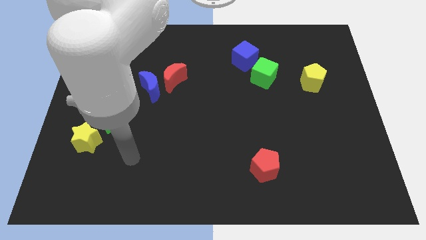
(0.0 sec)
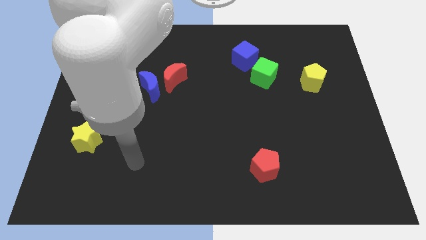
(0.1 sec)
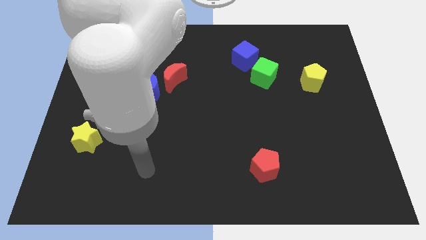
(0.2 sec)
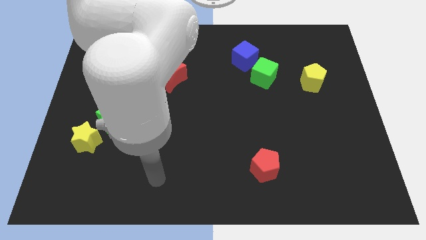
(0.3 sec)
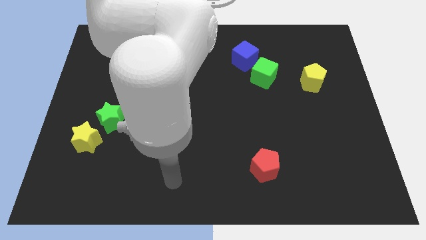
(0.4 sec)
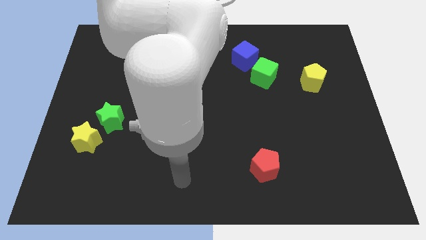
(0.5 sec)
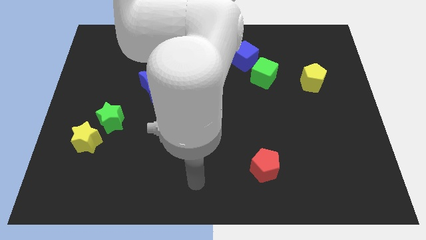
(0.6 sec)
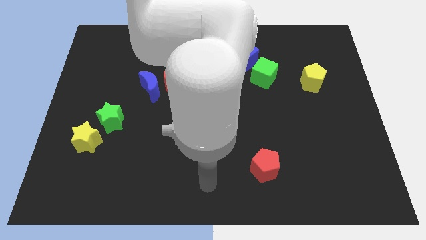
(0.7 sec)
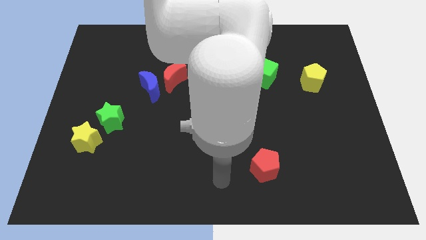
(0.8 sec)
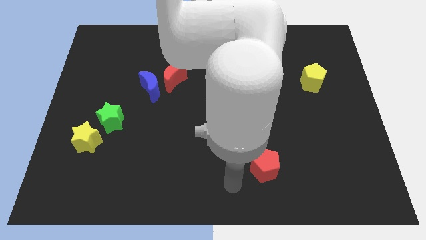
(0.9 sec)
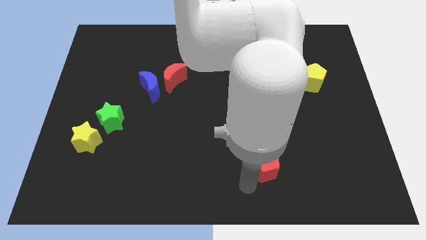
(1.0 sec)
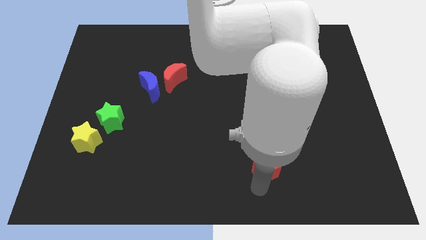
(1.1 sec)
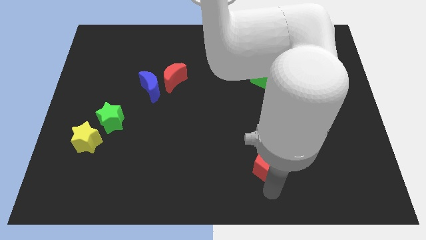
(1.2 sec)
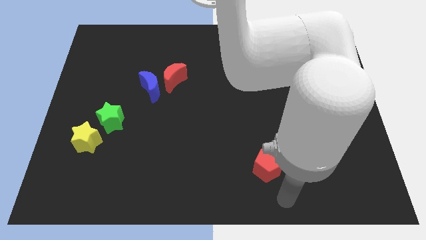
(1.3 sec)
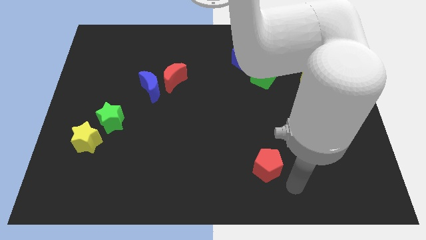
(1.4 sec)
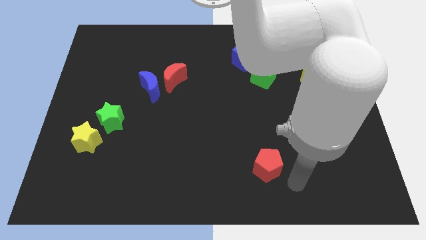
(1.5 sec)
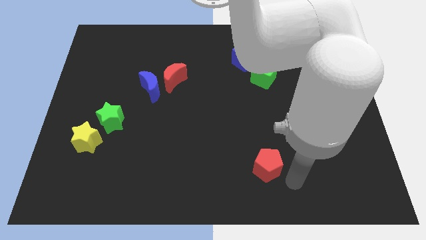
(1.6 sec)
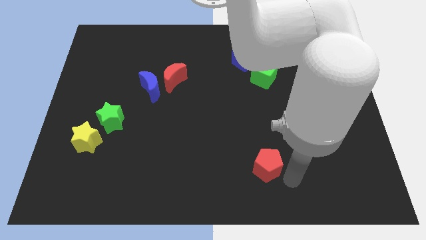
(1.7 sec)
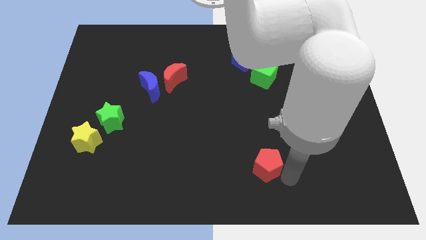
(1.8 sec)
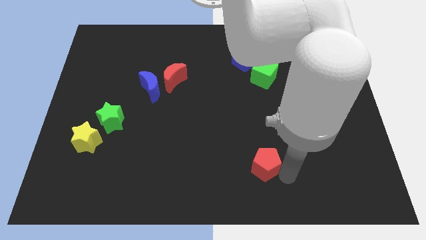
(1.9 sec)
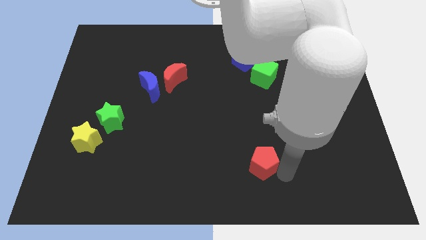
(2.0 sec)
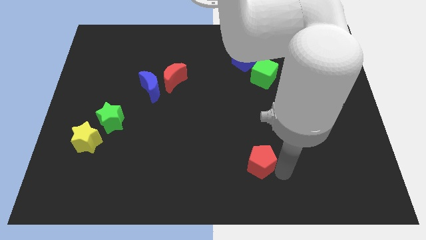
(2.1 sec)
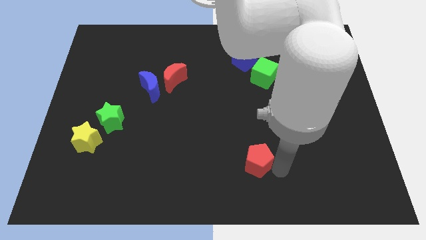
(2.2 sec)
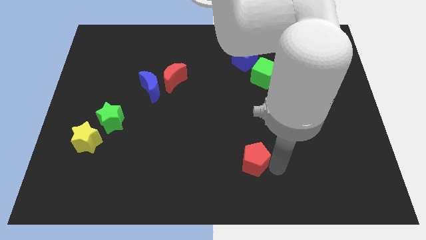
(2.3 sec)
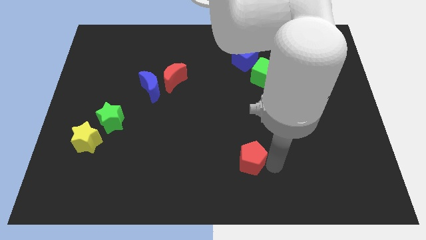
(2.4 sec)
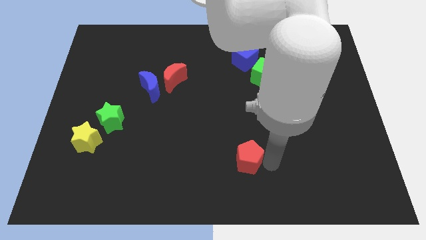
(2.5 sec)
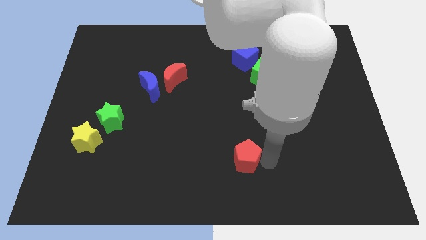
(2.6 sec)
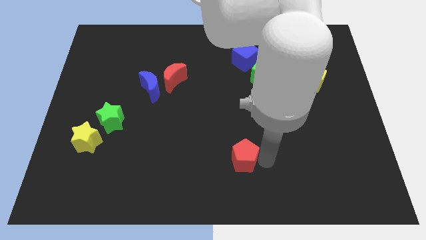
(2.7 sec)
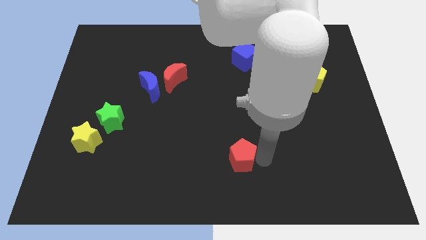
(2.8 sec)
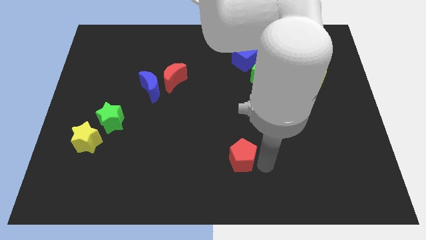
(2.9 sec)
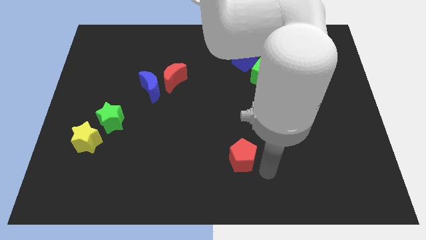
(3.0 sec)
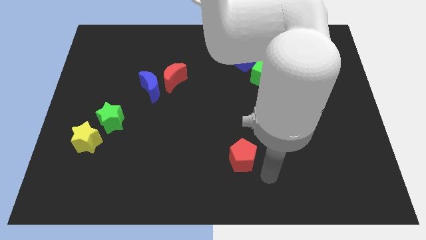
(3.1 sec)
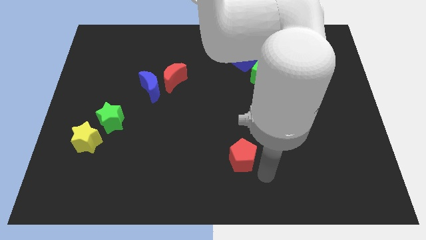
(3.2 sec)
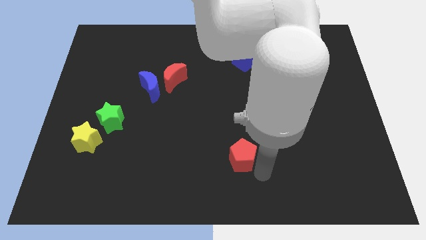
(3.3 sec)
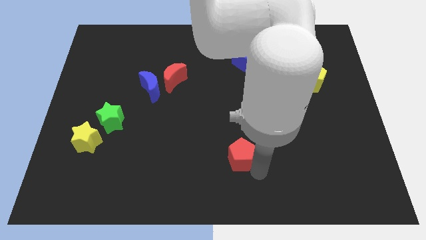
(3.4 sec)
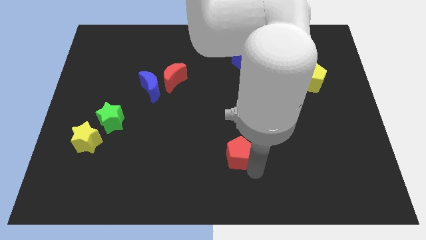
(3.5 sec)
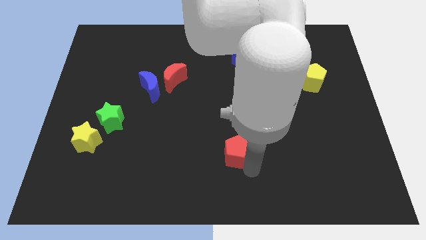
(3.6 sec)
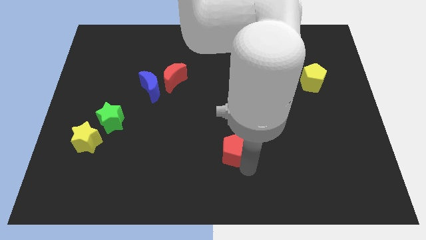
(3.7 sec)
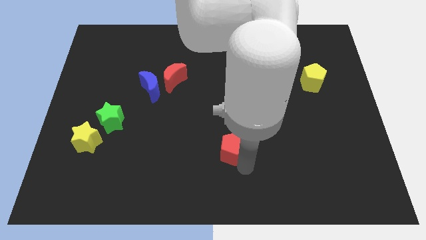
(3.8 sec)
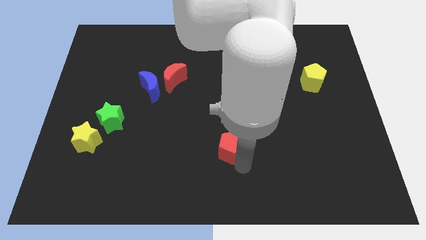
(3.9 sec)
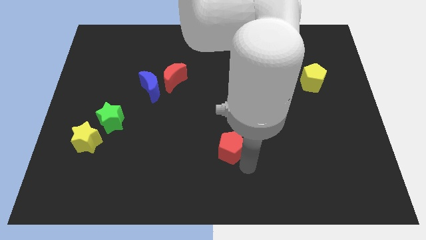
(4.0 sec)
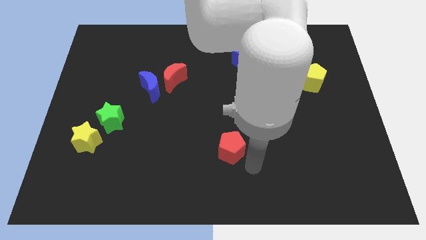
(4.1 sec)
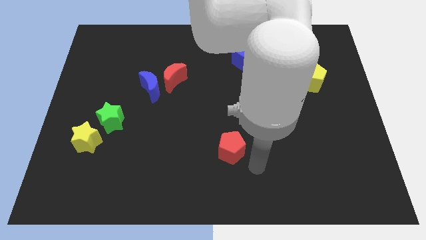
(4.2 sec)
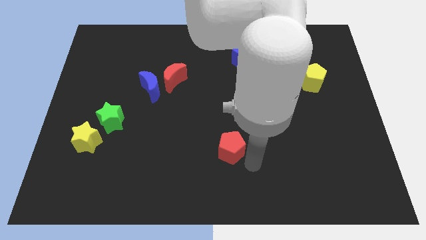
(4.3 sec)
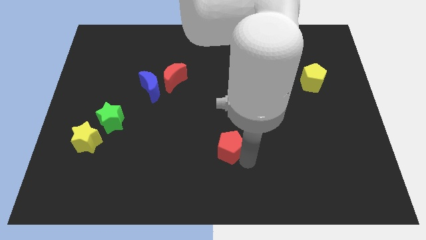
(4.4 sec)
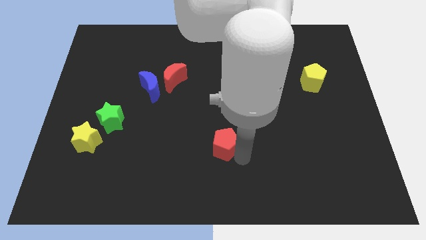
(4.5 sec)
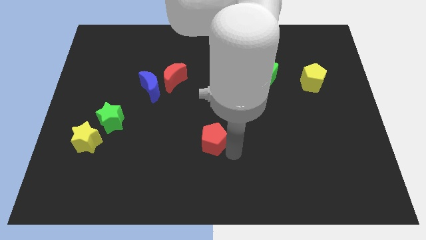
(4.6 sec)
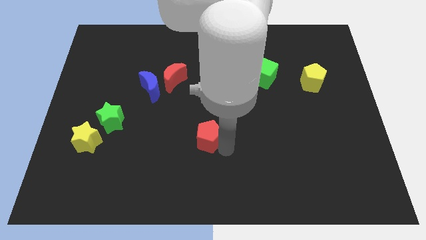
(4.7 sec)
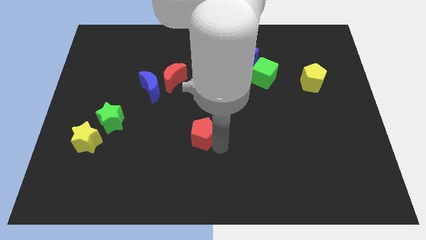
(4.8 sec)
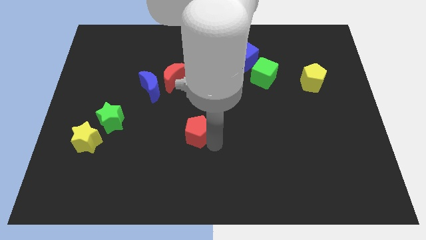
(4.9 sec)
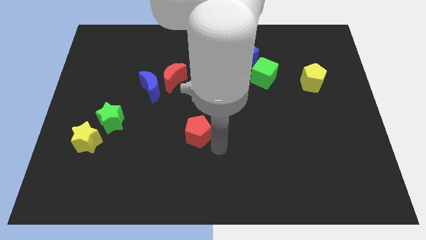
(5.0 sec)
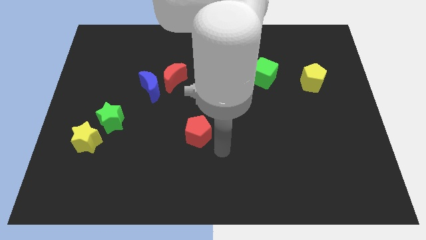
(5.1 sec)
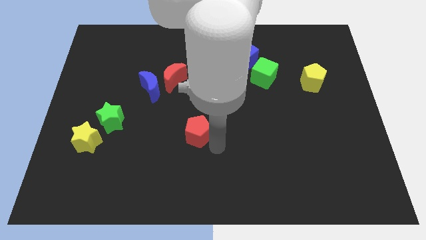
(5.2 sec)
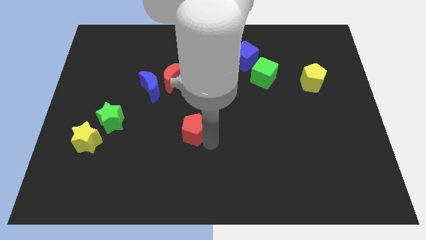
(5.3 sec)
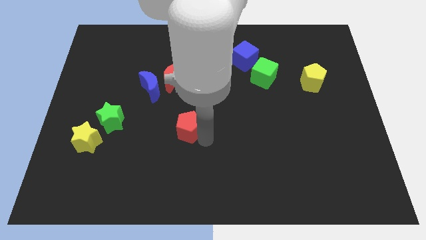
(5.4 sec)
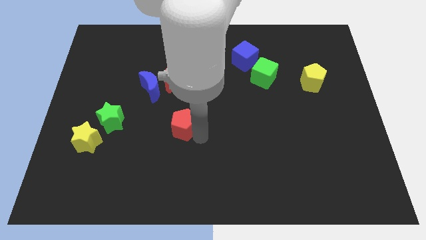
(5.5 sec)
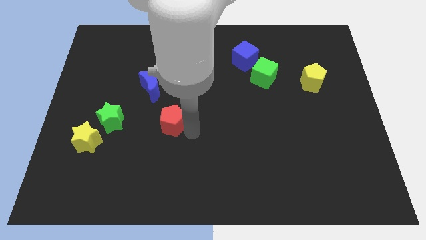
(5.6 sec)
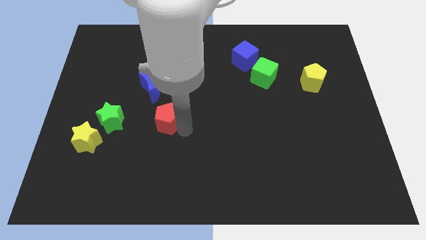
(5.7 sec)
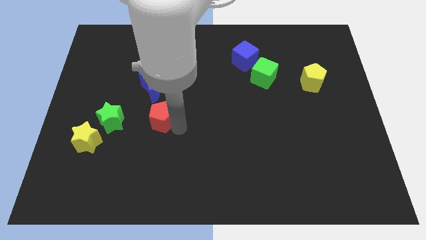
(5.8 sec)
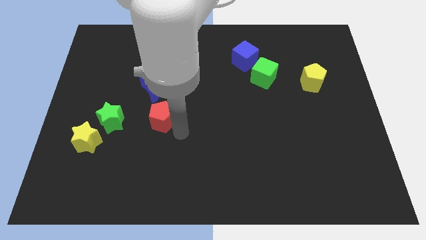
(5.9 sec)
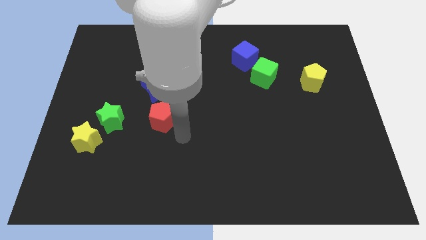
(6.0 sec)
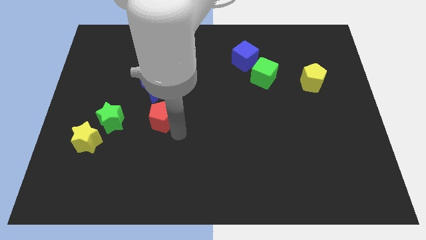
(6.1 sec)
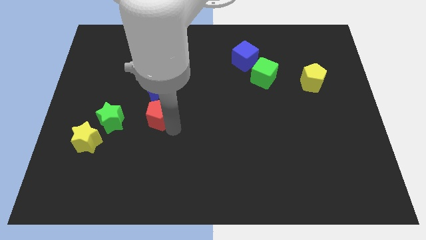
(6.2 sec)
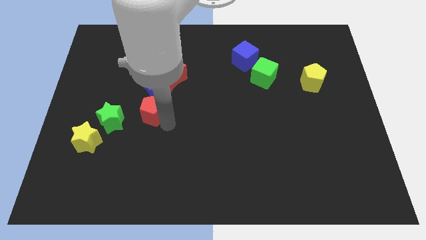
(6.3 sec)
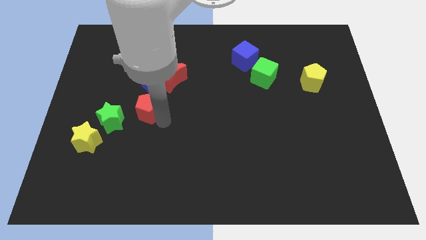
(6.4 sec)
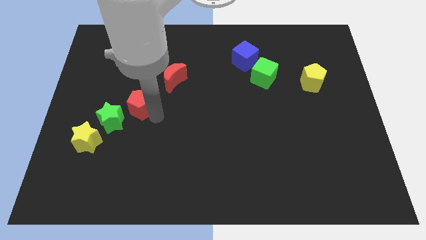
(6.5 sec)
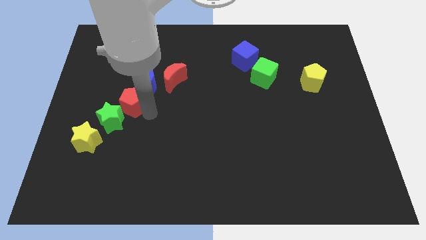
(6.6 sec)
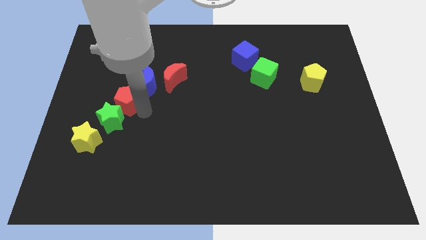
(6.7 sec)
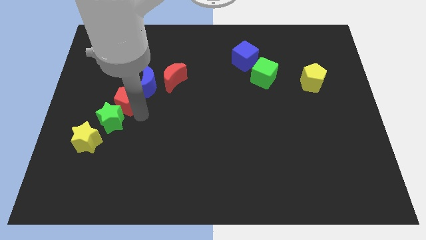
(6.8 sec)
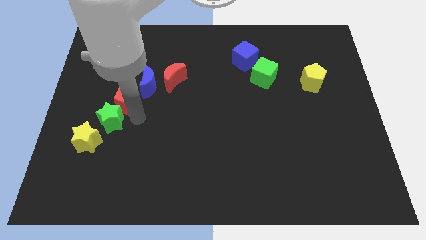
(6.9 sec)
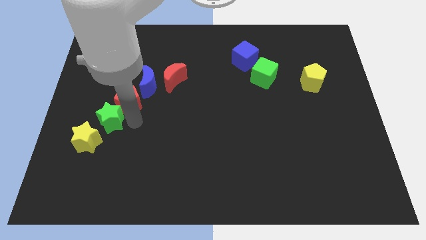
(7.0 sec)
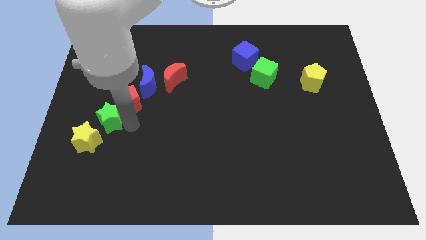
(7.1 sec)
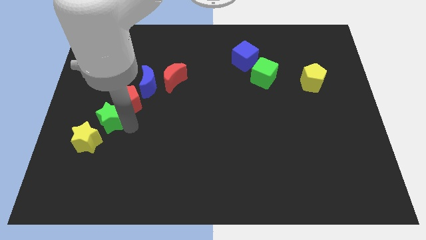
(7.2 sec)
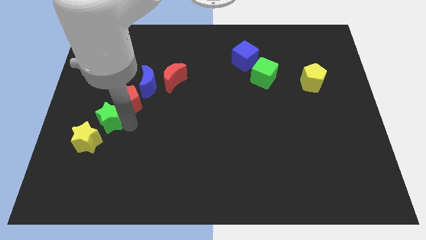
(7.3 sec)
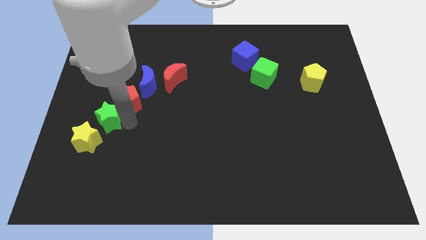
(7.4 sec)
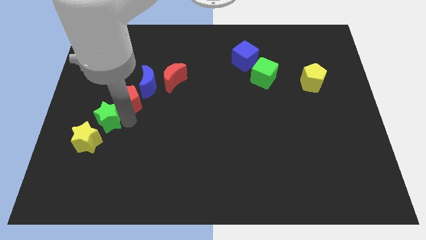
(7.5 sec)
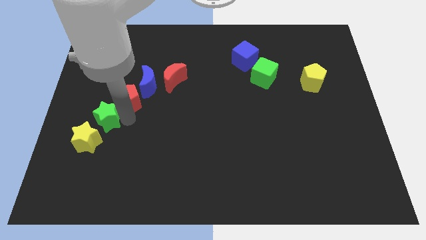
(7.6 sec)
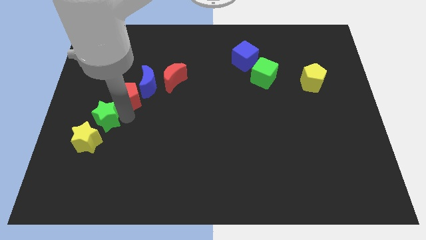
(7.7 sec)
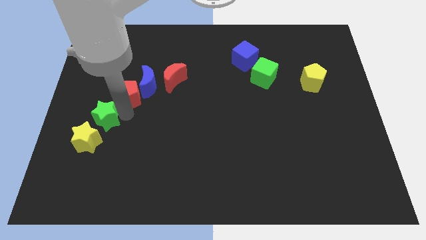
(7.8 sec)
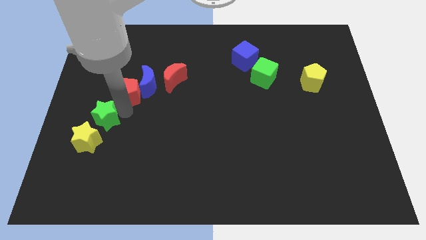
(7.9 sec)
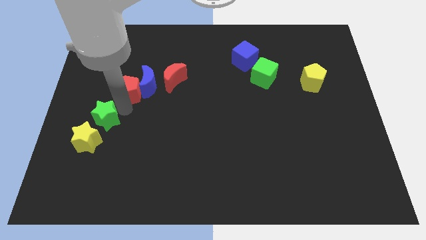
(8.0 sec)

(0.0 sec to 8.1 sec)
put the red pentagon left of the red moon
